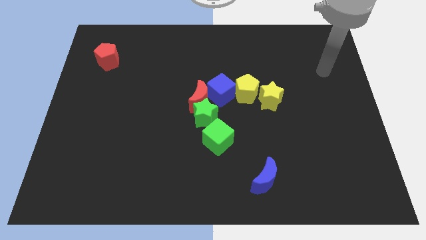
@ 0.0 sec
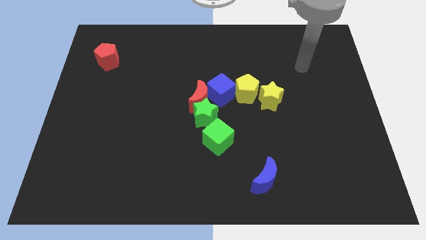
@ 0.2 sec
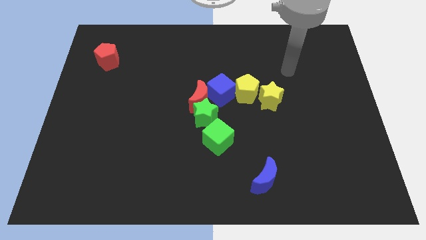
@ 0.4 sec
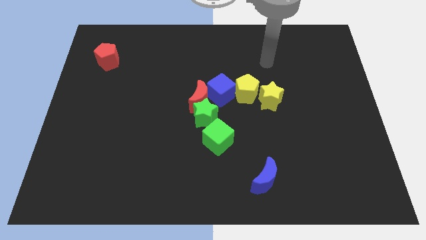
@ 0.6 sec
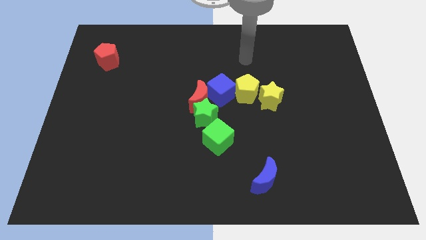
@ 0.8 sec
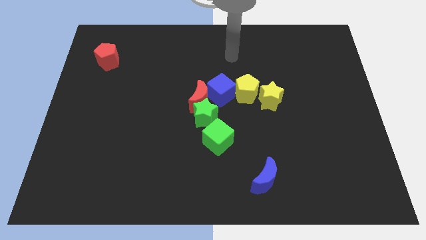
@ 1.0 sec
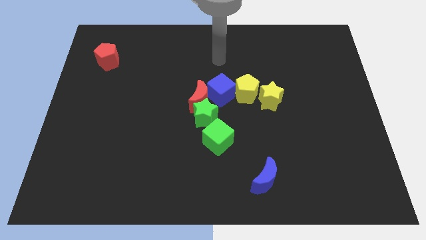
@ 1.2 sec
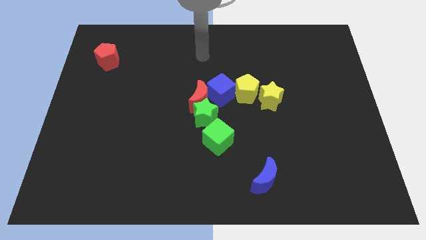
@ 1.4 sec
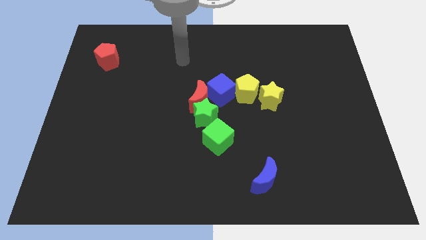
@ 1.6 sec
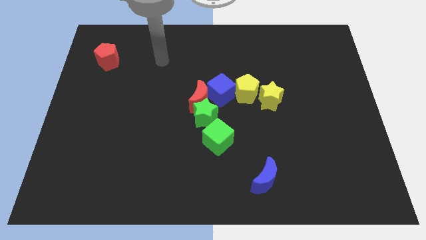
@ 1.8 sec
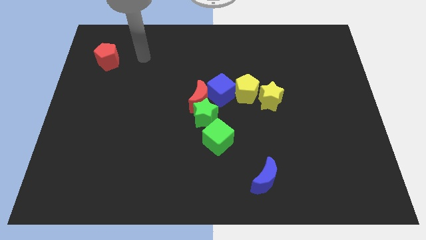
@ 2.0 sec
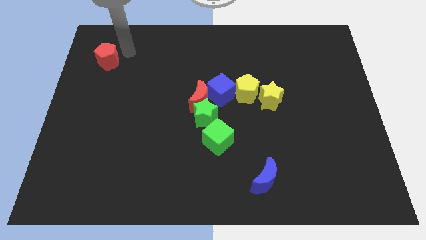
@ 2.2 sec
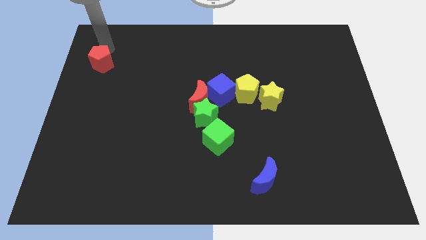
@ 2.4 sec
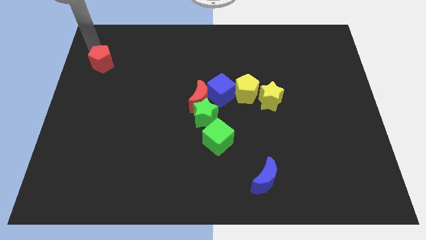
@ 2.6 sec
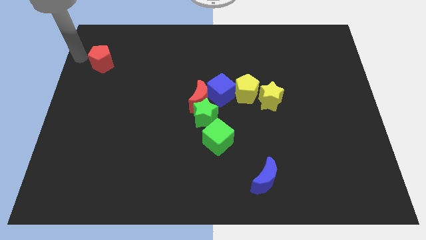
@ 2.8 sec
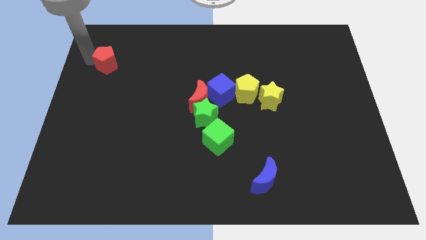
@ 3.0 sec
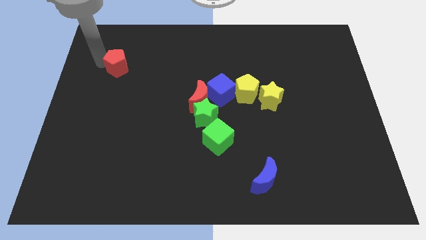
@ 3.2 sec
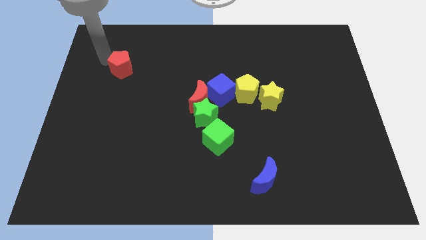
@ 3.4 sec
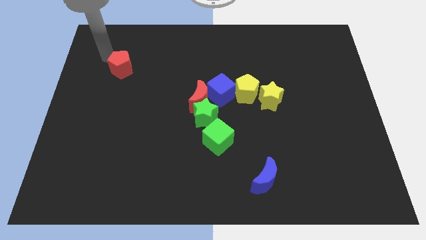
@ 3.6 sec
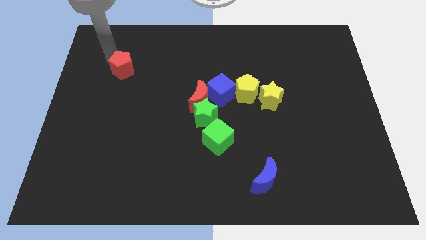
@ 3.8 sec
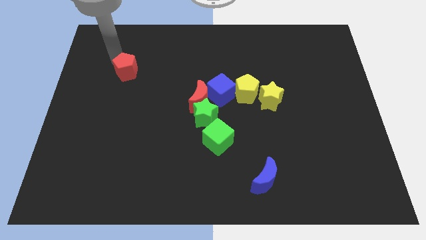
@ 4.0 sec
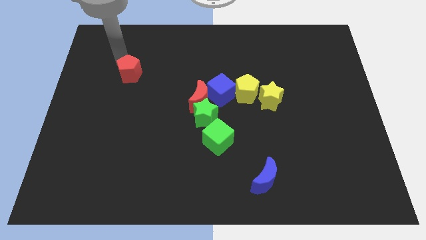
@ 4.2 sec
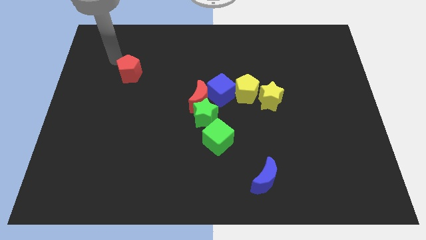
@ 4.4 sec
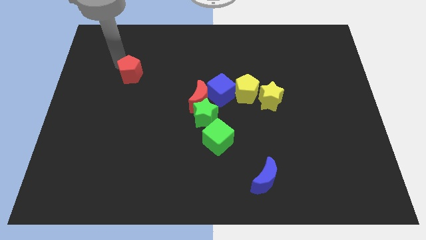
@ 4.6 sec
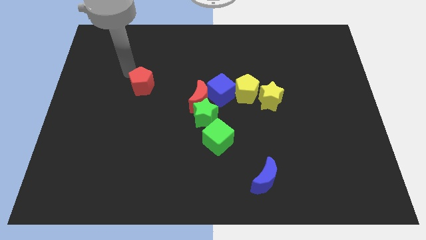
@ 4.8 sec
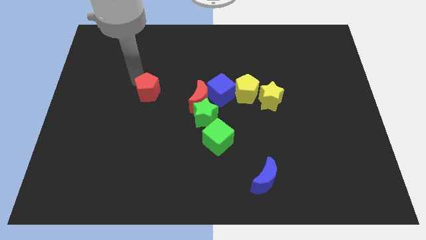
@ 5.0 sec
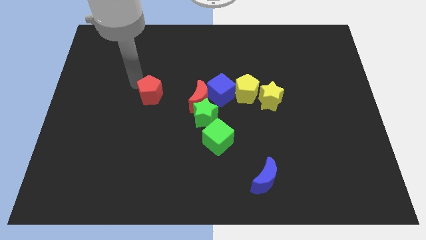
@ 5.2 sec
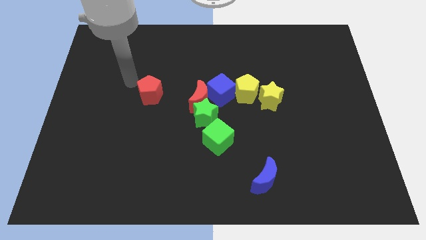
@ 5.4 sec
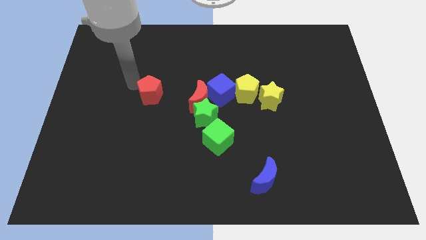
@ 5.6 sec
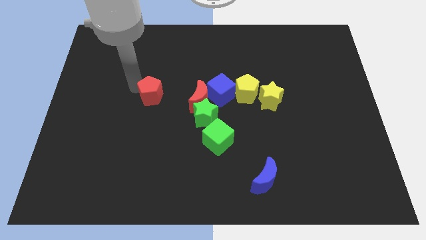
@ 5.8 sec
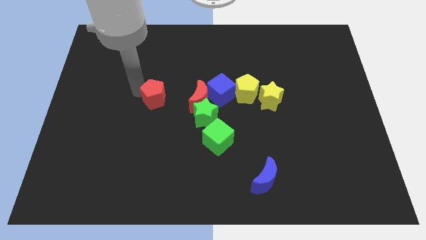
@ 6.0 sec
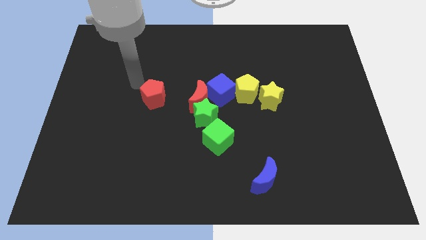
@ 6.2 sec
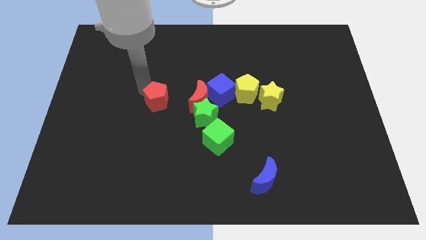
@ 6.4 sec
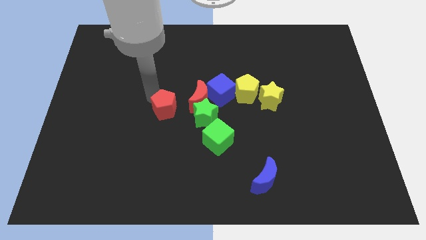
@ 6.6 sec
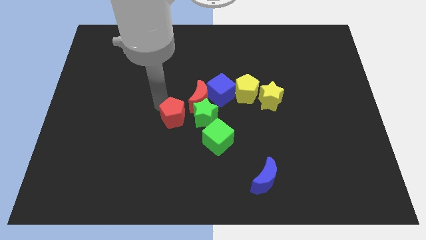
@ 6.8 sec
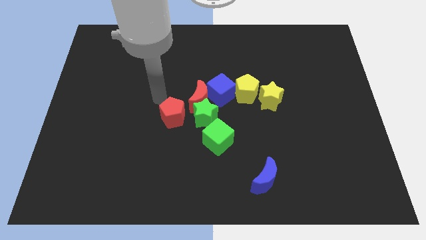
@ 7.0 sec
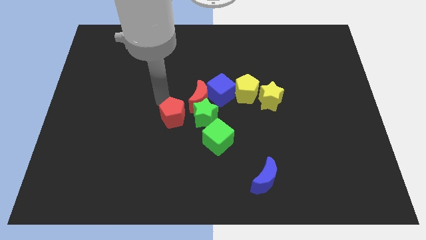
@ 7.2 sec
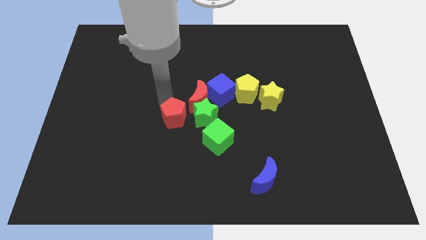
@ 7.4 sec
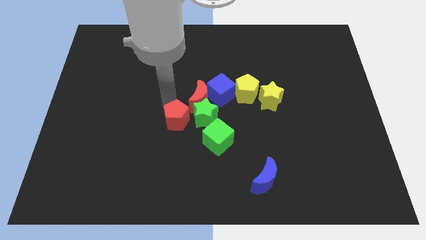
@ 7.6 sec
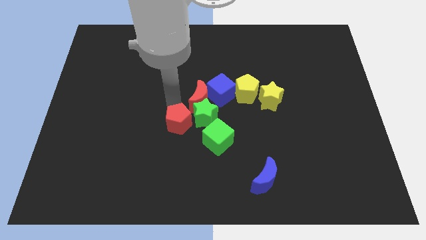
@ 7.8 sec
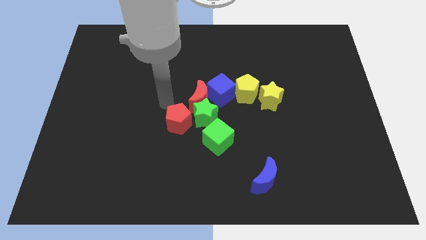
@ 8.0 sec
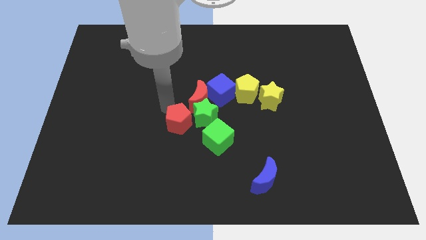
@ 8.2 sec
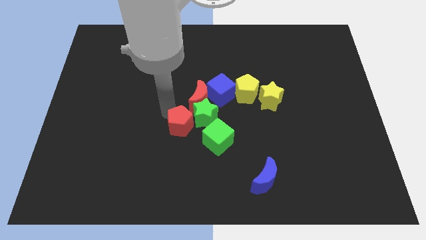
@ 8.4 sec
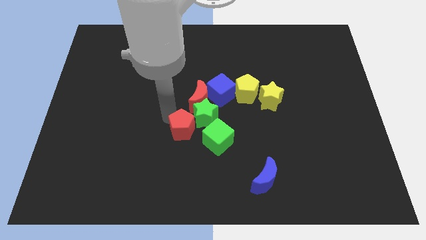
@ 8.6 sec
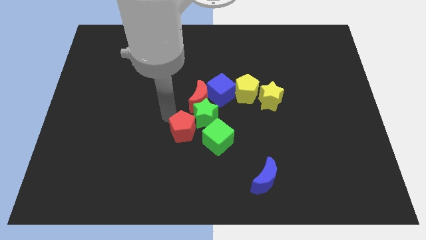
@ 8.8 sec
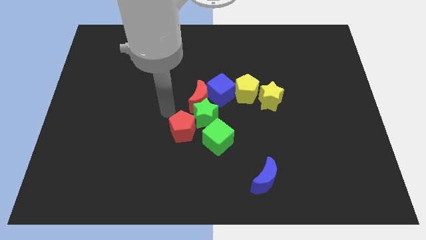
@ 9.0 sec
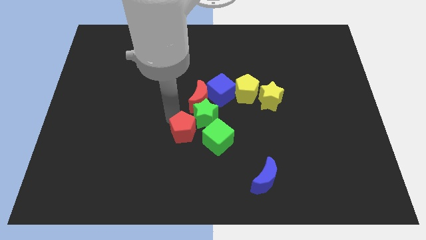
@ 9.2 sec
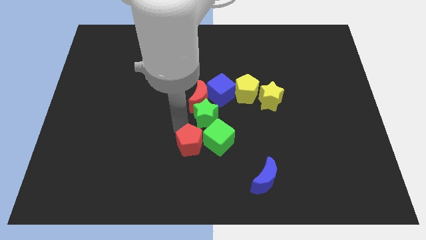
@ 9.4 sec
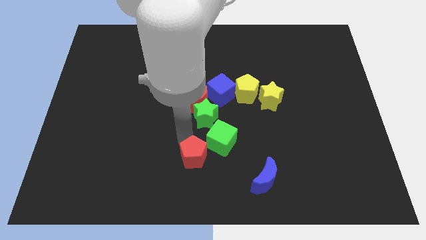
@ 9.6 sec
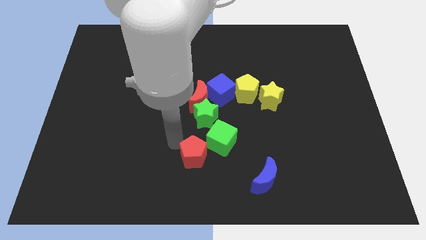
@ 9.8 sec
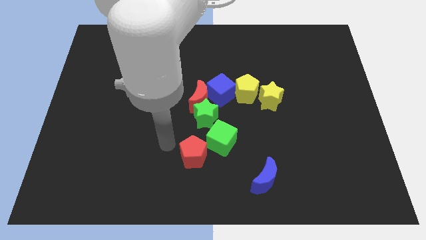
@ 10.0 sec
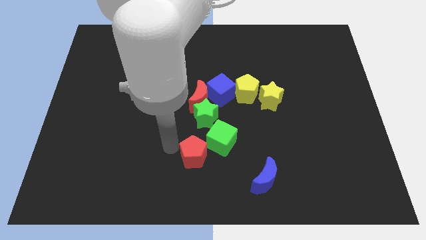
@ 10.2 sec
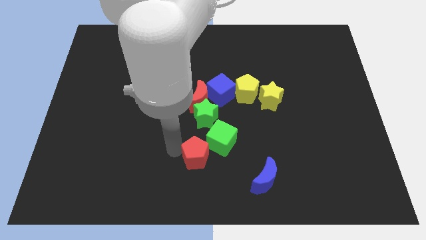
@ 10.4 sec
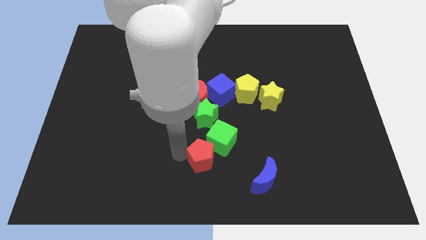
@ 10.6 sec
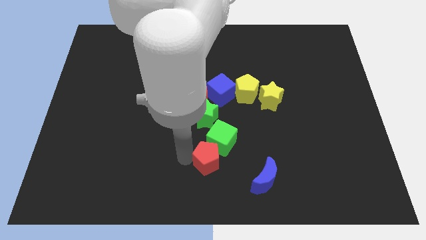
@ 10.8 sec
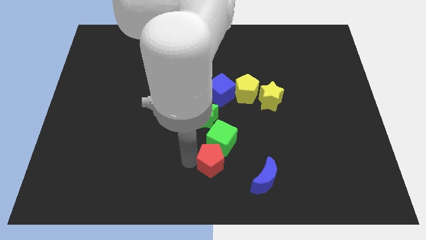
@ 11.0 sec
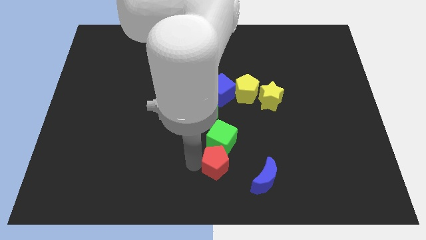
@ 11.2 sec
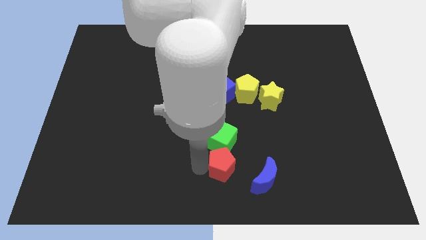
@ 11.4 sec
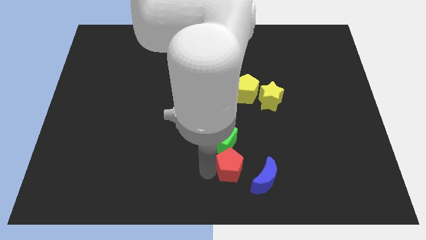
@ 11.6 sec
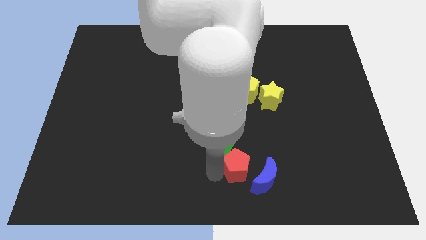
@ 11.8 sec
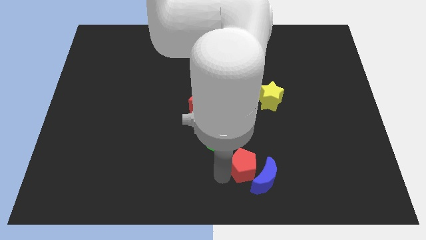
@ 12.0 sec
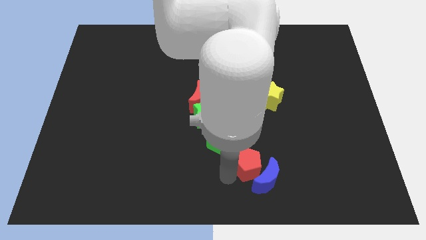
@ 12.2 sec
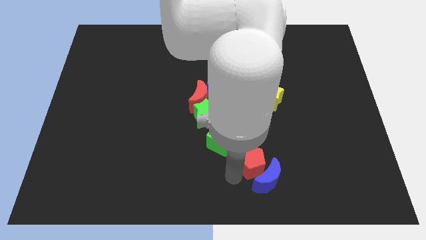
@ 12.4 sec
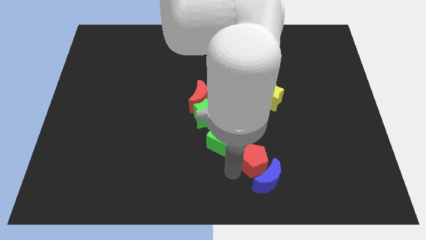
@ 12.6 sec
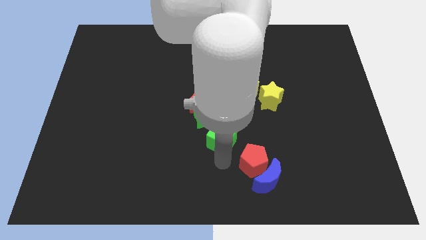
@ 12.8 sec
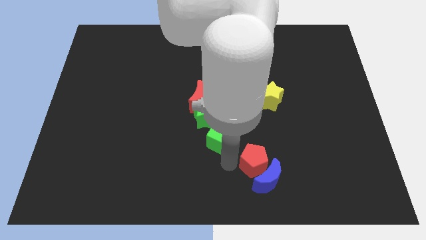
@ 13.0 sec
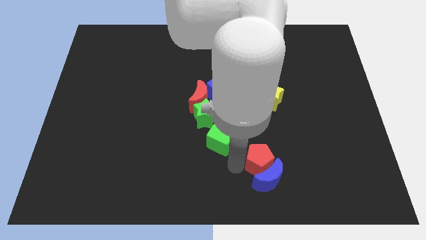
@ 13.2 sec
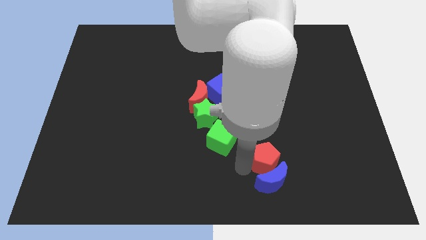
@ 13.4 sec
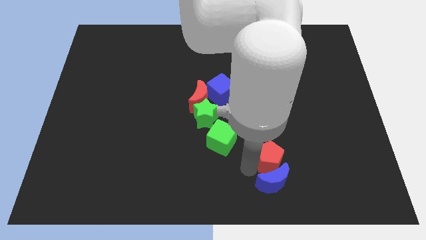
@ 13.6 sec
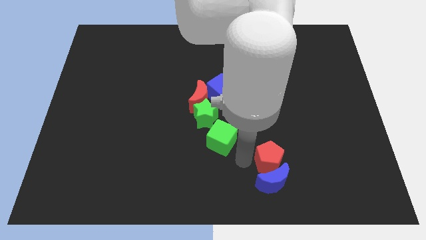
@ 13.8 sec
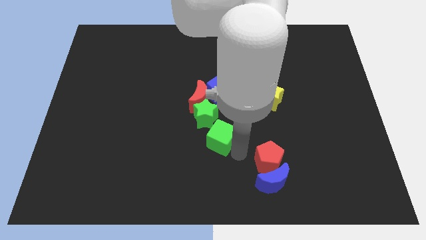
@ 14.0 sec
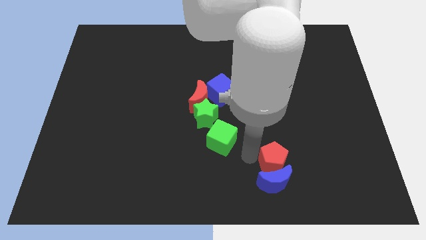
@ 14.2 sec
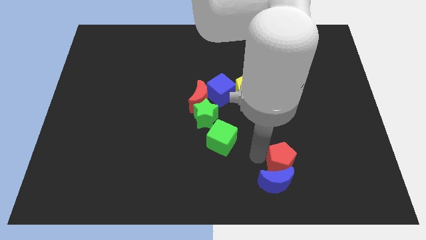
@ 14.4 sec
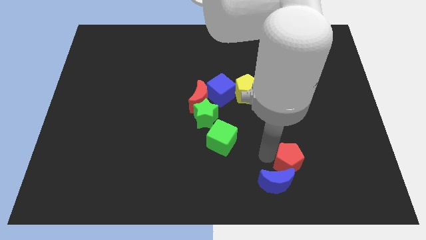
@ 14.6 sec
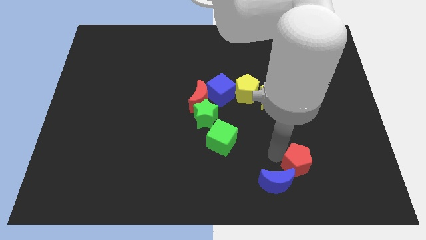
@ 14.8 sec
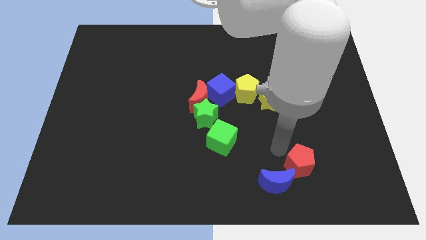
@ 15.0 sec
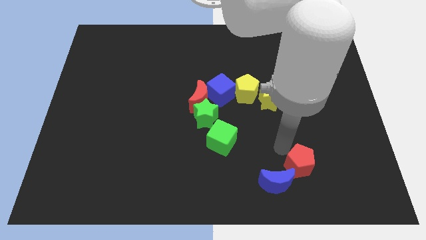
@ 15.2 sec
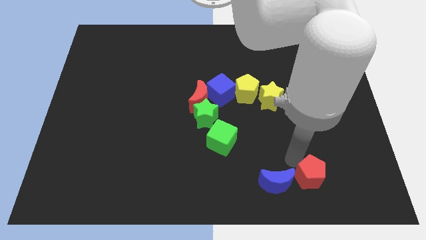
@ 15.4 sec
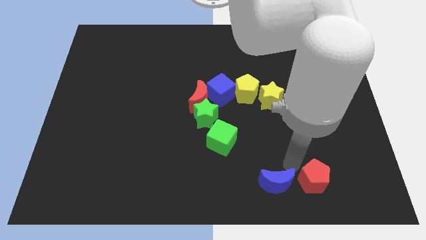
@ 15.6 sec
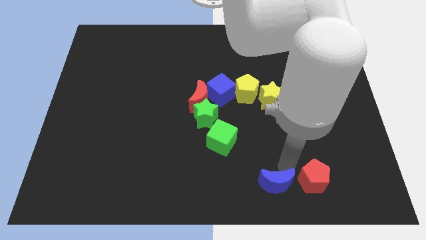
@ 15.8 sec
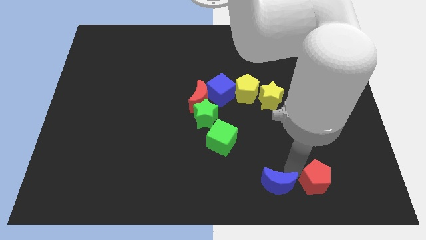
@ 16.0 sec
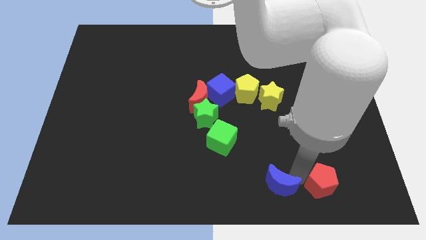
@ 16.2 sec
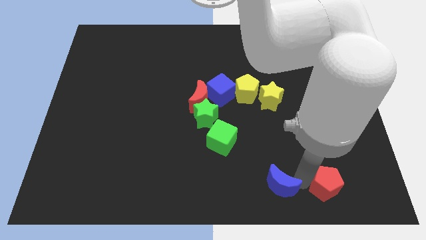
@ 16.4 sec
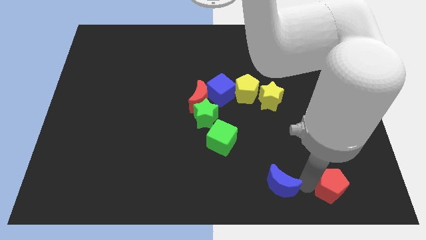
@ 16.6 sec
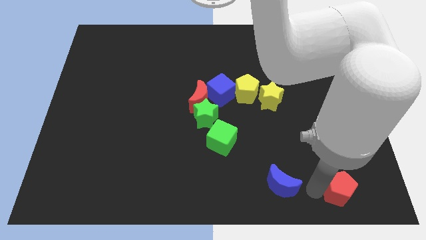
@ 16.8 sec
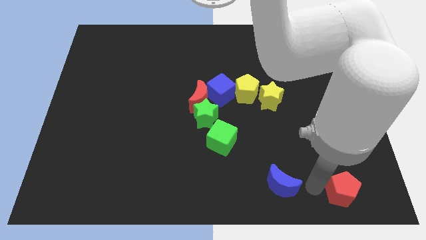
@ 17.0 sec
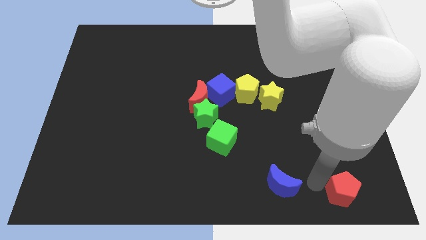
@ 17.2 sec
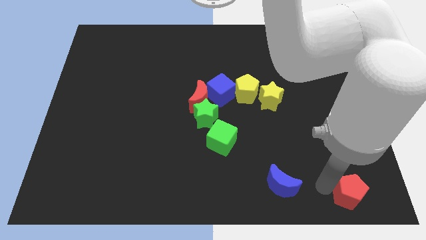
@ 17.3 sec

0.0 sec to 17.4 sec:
move the red pentagon to the lower right corner
